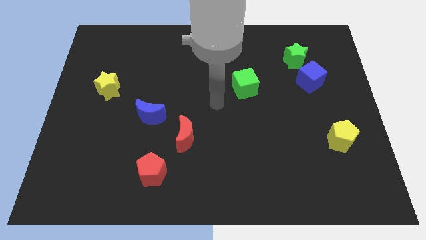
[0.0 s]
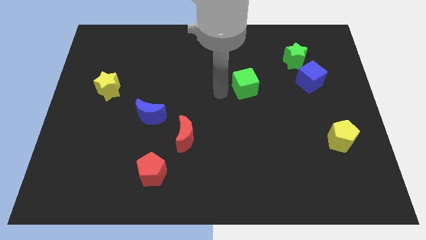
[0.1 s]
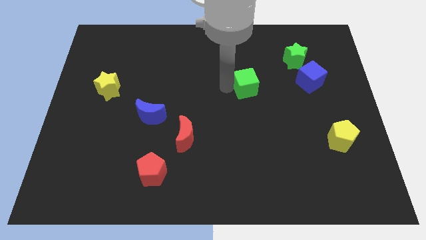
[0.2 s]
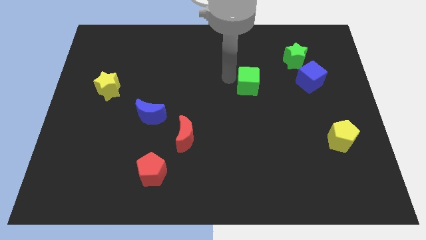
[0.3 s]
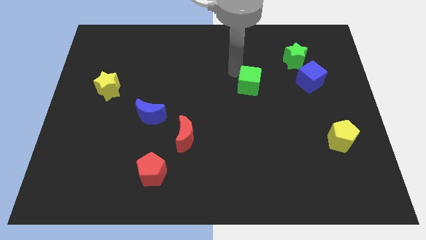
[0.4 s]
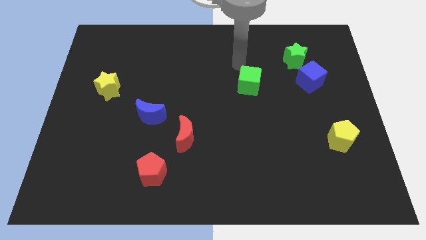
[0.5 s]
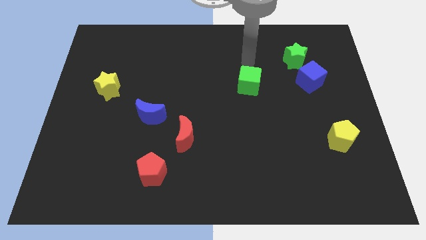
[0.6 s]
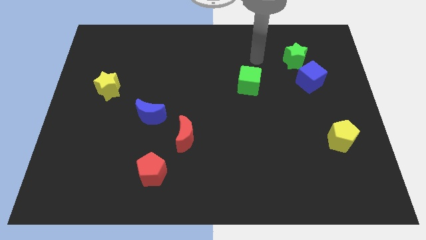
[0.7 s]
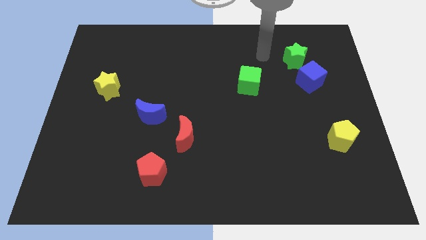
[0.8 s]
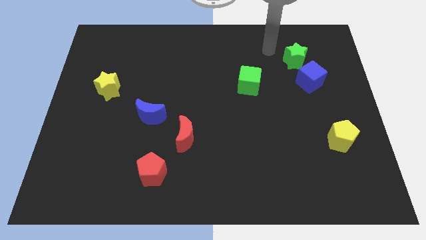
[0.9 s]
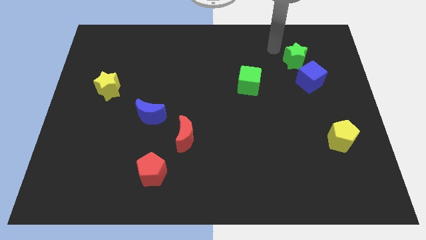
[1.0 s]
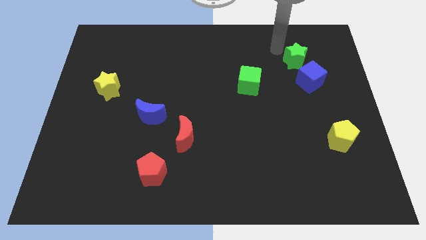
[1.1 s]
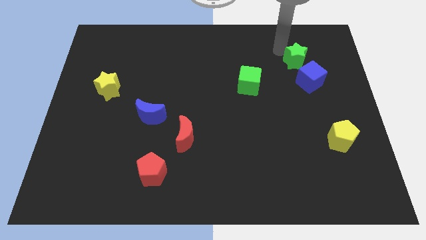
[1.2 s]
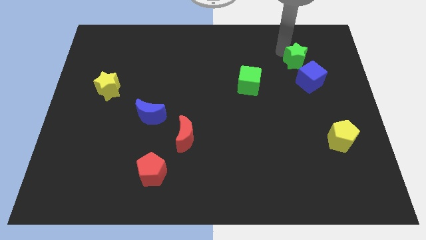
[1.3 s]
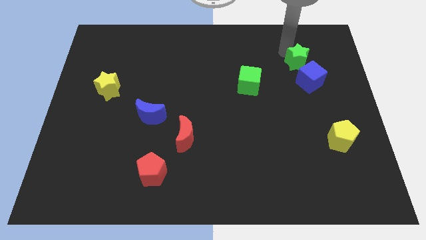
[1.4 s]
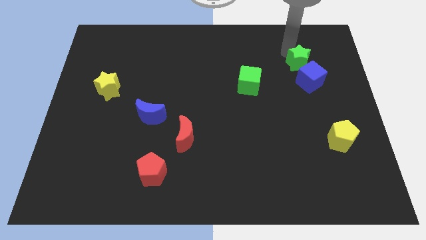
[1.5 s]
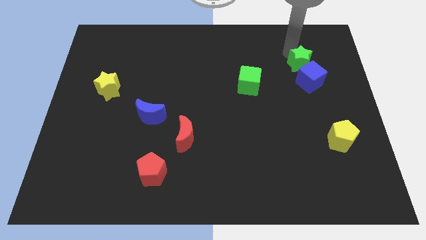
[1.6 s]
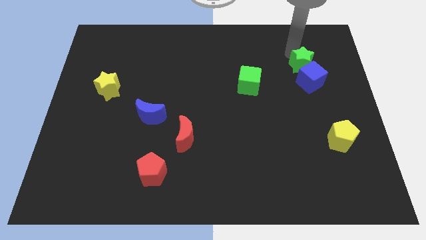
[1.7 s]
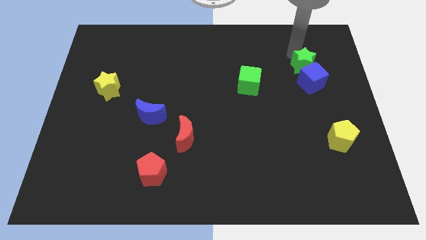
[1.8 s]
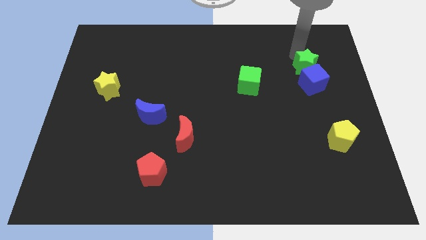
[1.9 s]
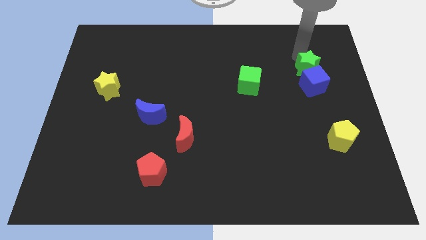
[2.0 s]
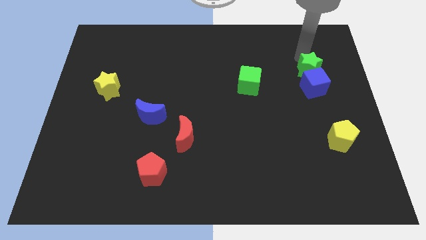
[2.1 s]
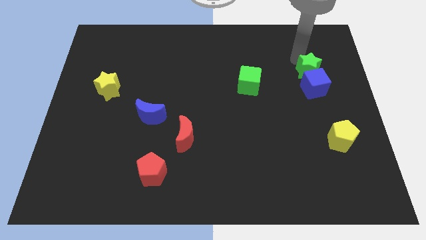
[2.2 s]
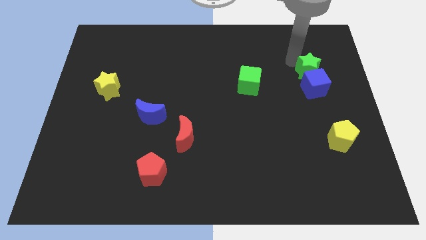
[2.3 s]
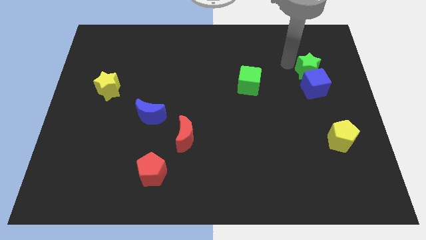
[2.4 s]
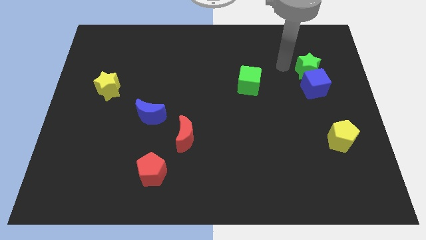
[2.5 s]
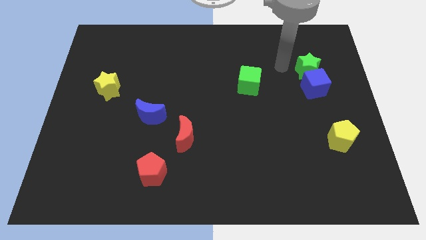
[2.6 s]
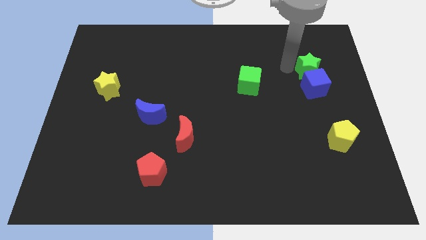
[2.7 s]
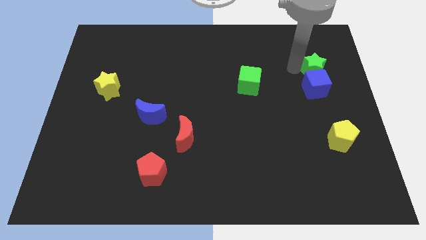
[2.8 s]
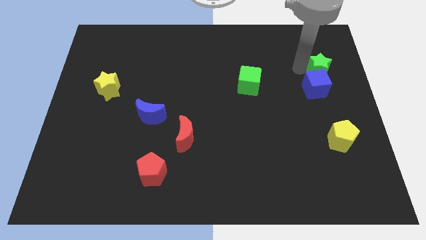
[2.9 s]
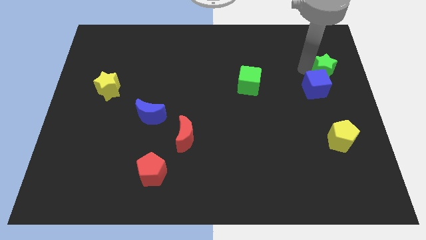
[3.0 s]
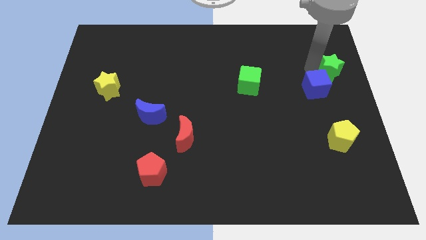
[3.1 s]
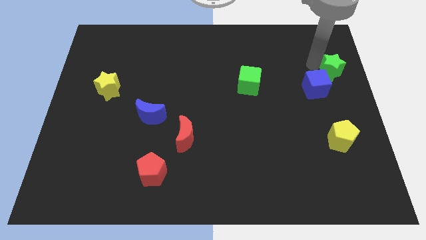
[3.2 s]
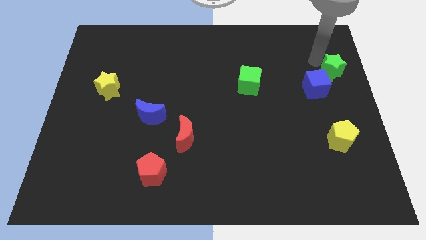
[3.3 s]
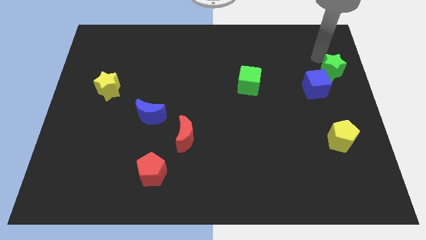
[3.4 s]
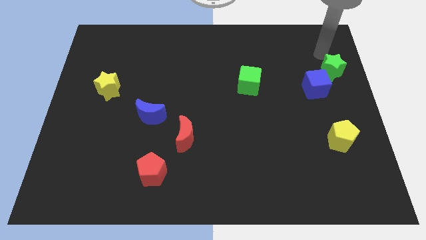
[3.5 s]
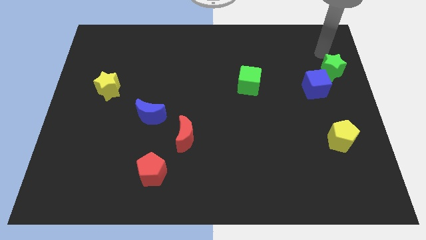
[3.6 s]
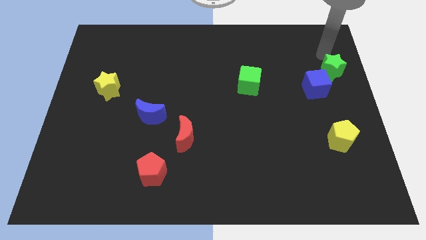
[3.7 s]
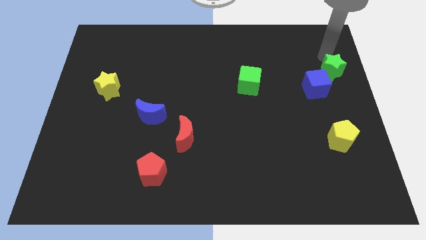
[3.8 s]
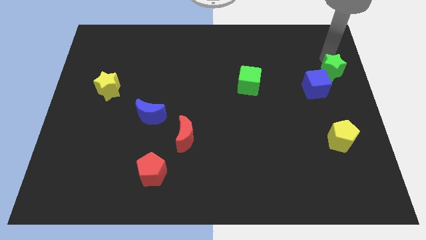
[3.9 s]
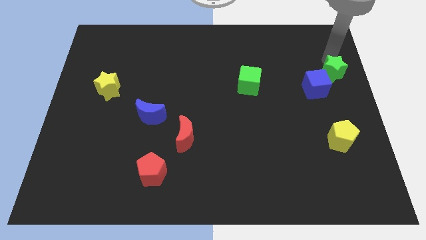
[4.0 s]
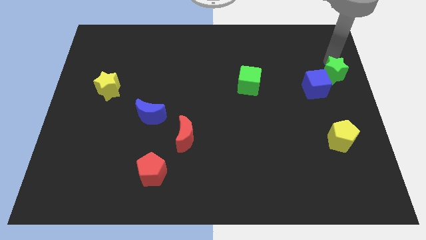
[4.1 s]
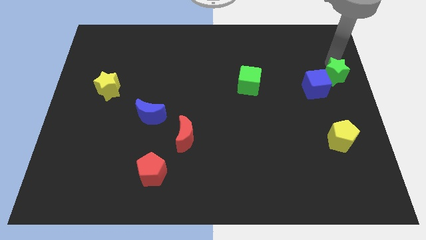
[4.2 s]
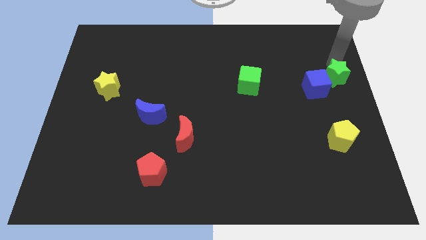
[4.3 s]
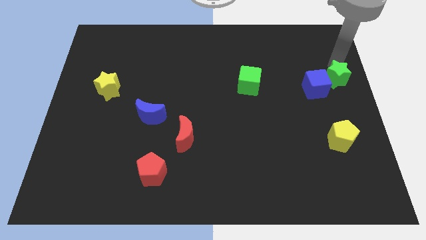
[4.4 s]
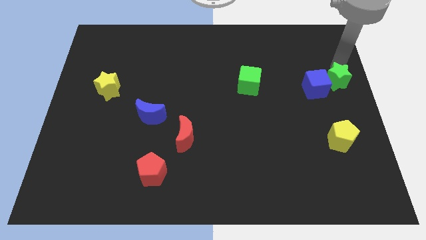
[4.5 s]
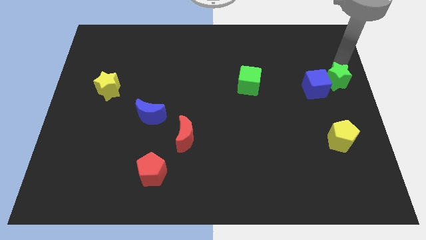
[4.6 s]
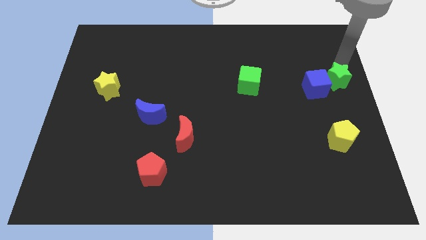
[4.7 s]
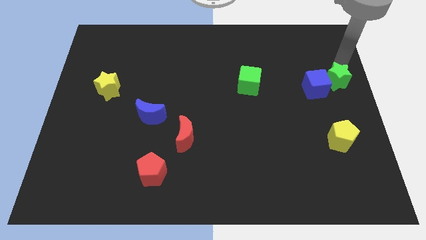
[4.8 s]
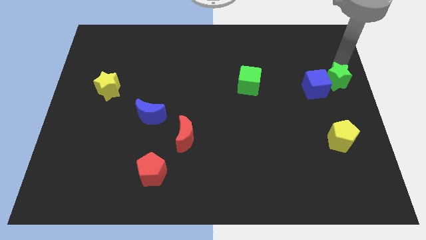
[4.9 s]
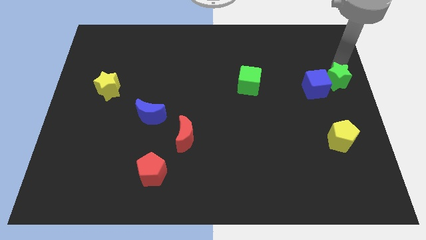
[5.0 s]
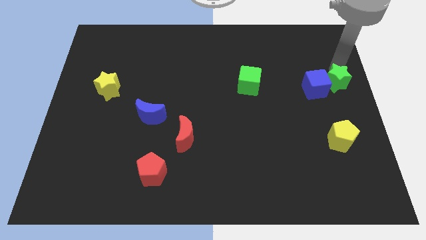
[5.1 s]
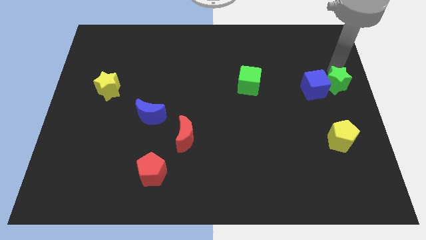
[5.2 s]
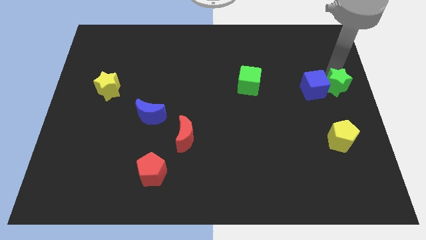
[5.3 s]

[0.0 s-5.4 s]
slide the green star to the top side of the yellow pentagon
